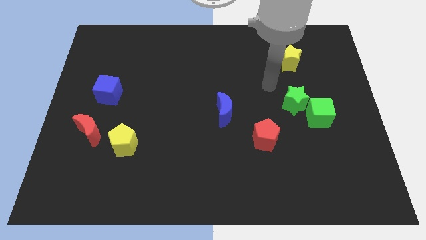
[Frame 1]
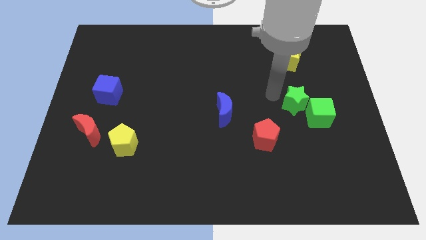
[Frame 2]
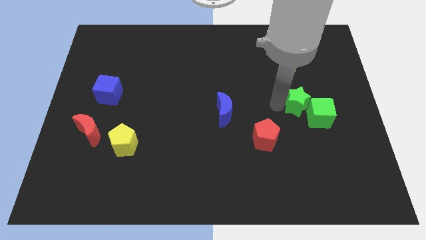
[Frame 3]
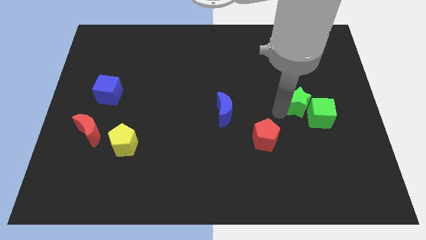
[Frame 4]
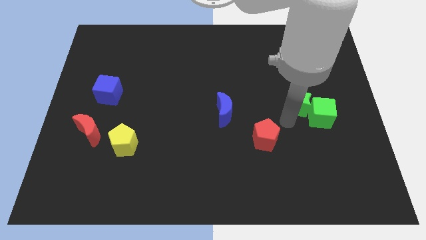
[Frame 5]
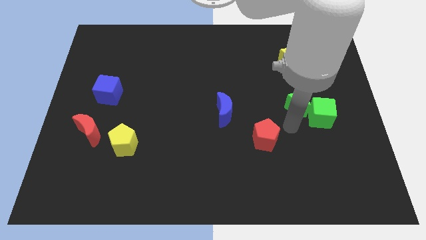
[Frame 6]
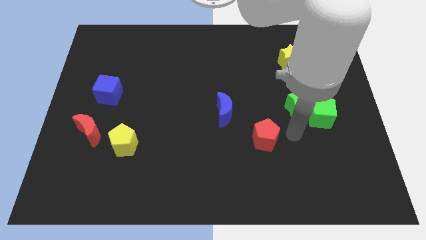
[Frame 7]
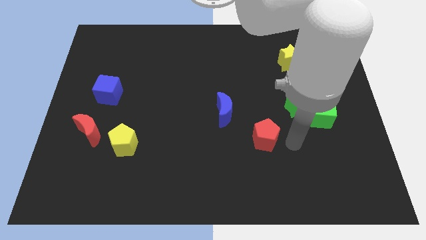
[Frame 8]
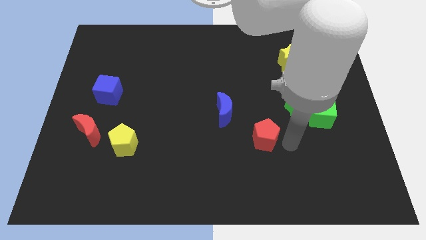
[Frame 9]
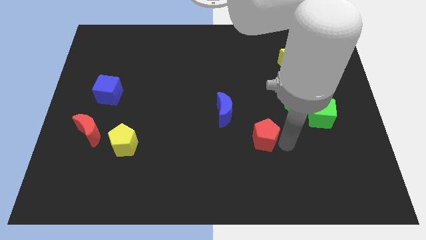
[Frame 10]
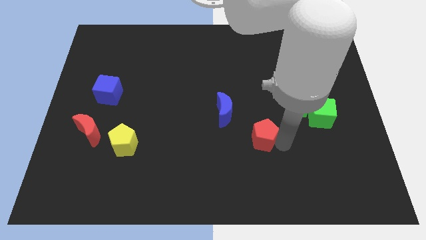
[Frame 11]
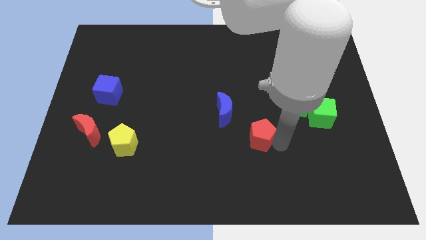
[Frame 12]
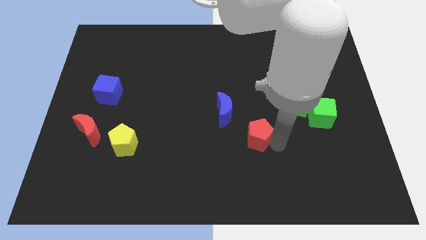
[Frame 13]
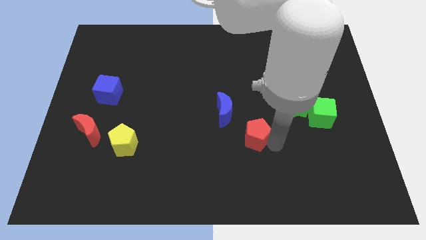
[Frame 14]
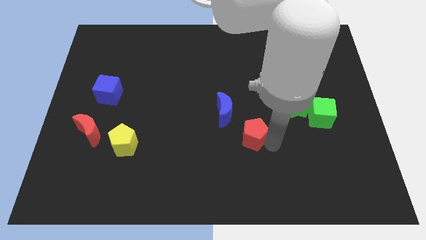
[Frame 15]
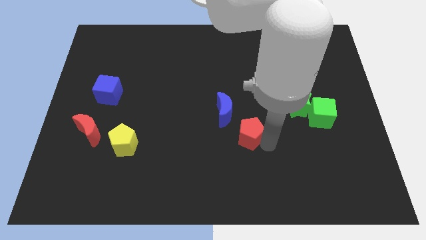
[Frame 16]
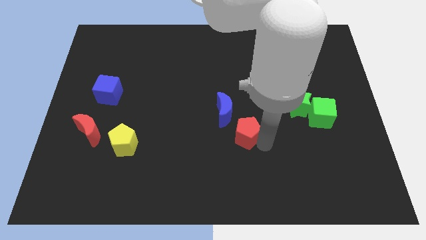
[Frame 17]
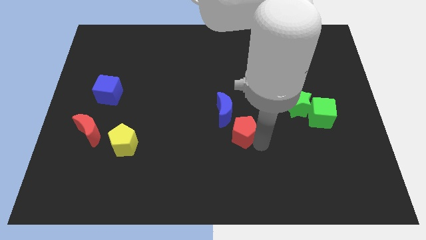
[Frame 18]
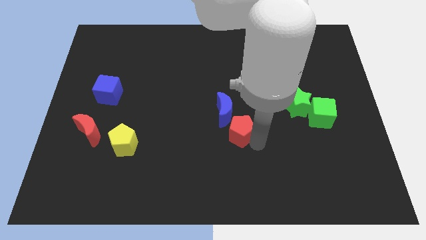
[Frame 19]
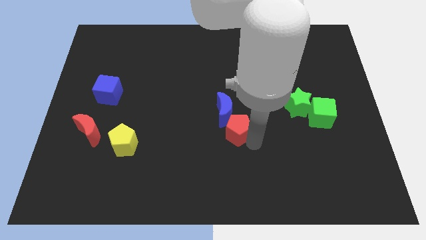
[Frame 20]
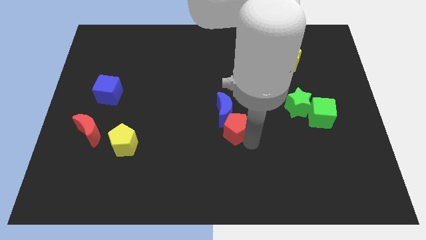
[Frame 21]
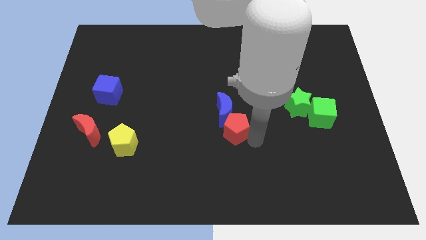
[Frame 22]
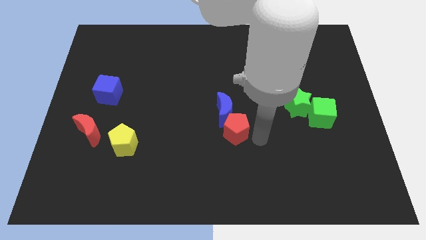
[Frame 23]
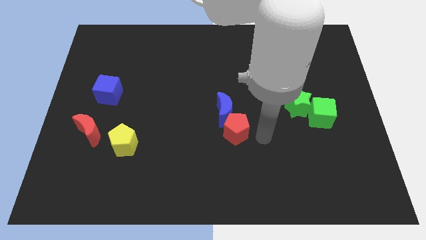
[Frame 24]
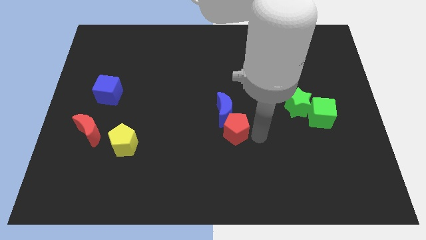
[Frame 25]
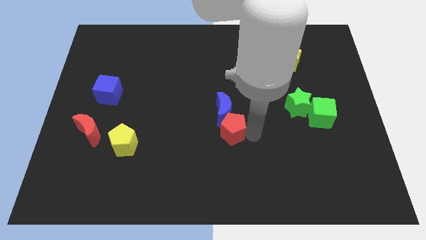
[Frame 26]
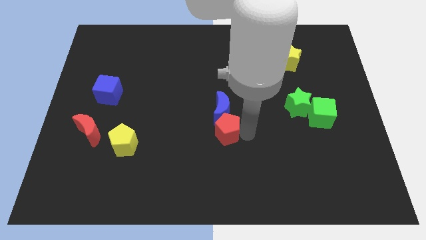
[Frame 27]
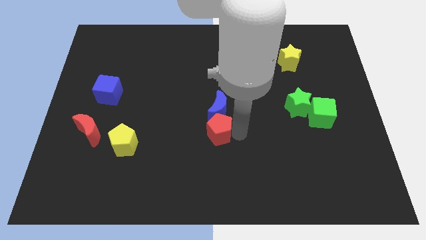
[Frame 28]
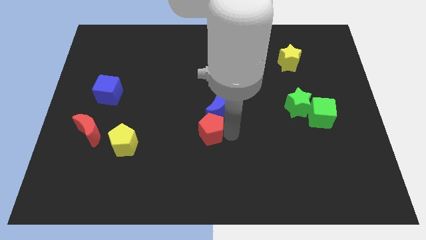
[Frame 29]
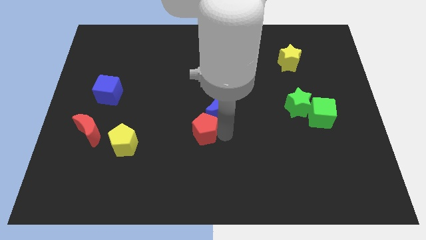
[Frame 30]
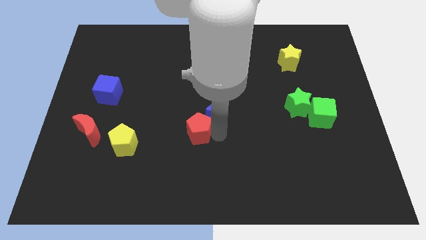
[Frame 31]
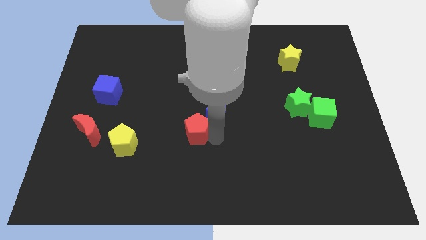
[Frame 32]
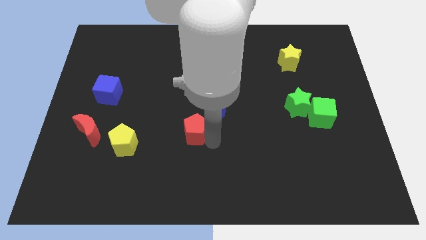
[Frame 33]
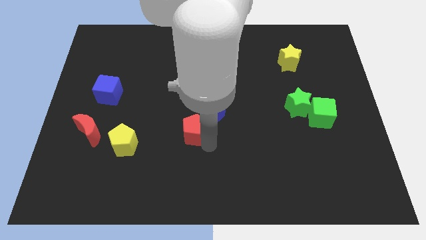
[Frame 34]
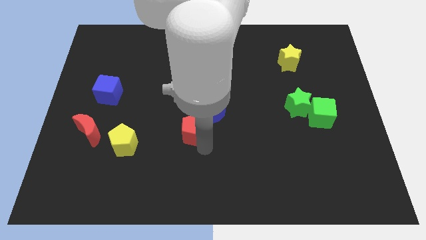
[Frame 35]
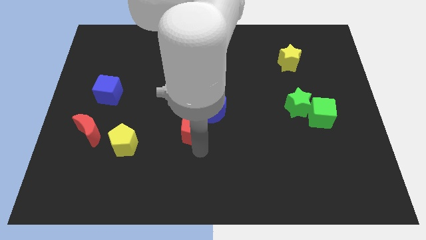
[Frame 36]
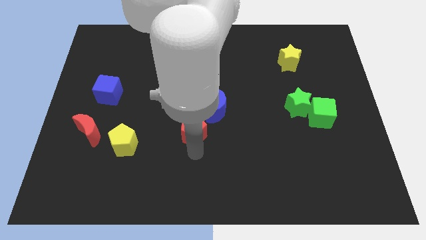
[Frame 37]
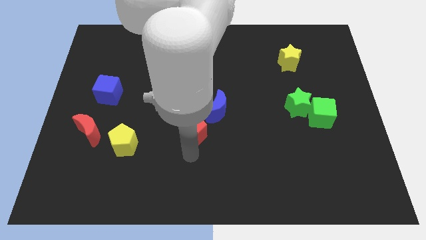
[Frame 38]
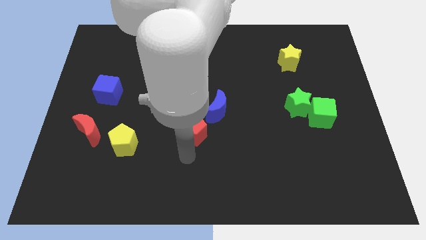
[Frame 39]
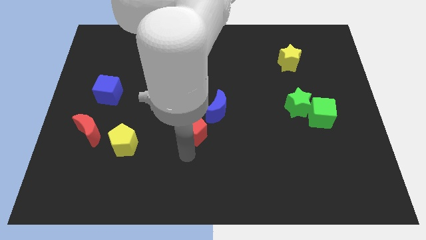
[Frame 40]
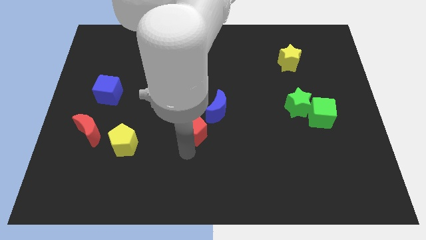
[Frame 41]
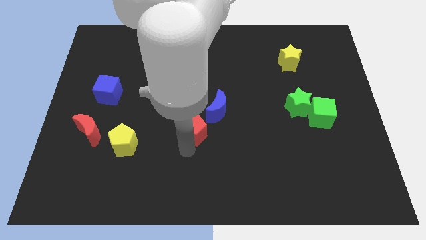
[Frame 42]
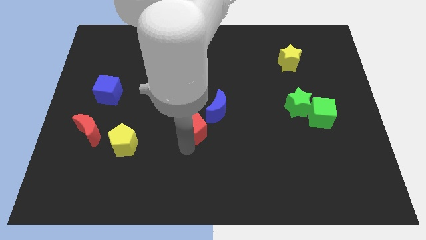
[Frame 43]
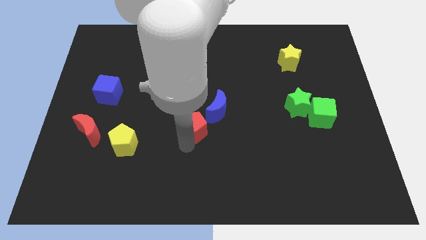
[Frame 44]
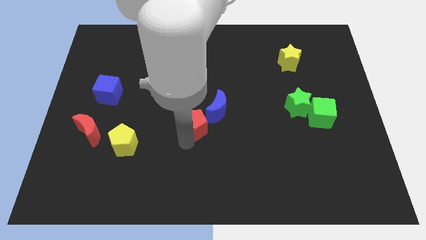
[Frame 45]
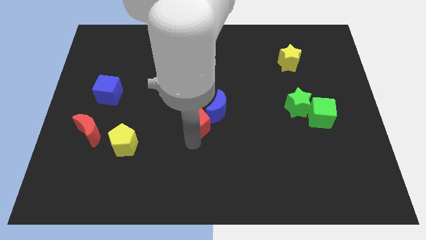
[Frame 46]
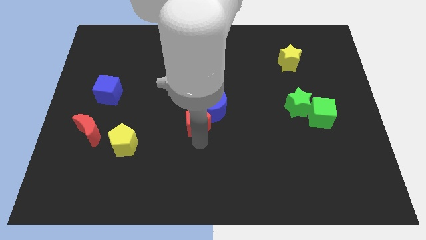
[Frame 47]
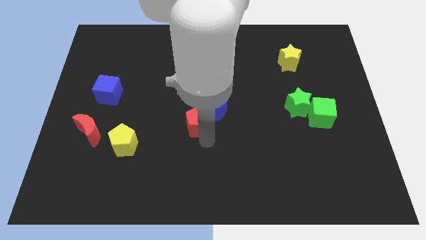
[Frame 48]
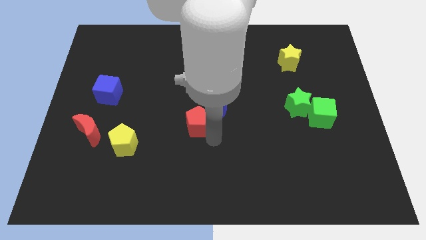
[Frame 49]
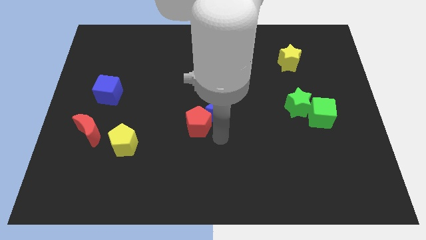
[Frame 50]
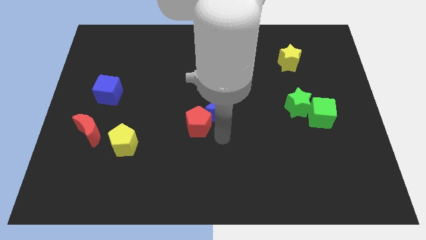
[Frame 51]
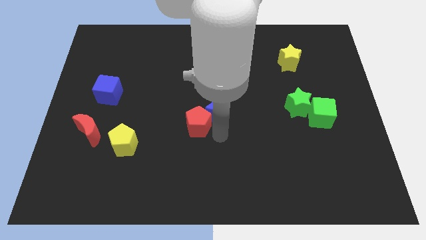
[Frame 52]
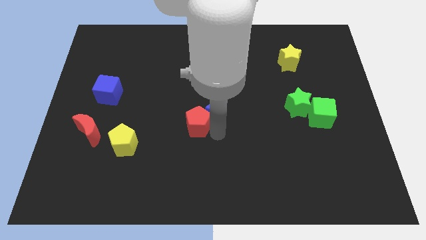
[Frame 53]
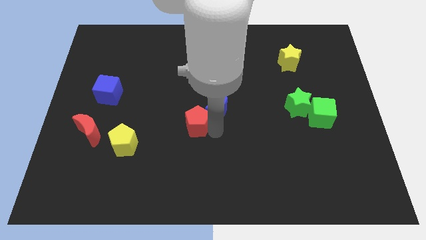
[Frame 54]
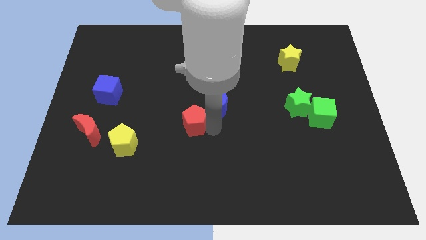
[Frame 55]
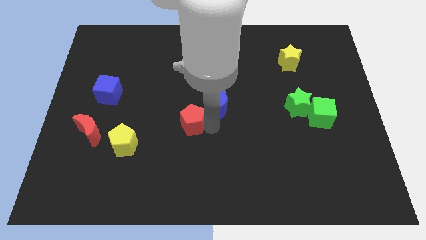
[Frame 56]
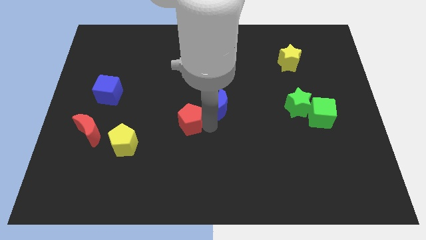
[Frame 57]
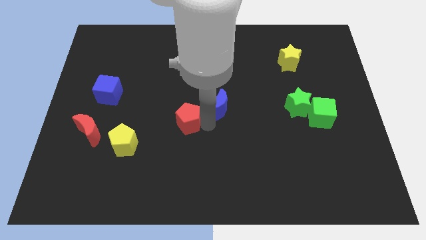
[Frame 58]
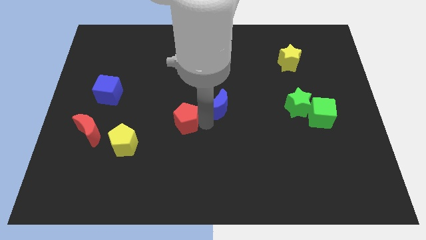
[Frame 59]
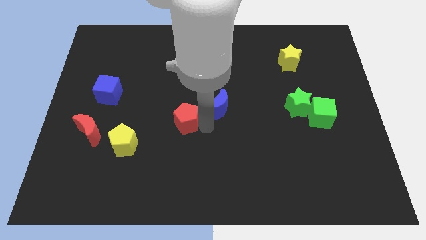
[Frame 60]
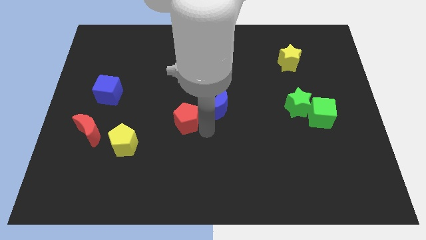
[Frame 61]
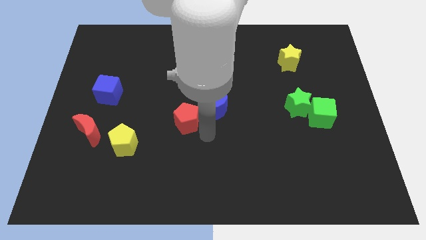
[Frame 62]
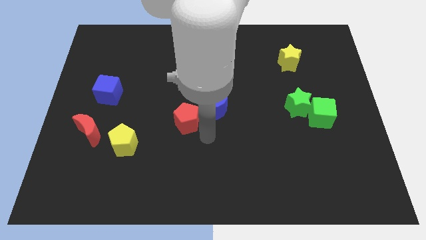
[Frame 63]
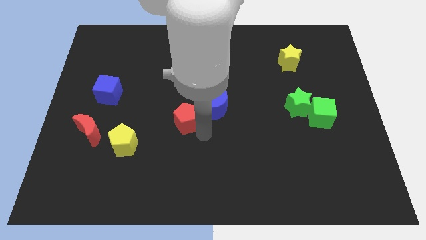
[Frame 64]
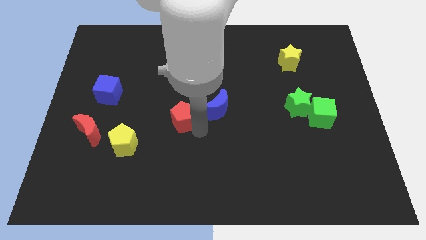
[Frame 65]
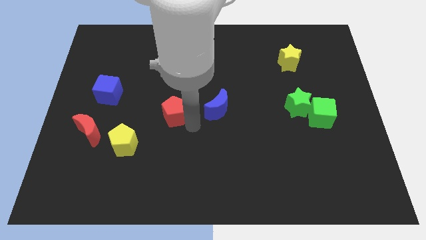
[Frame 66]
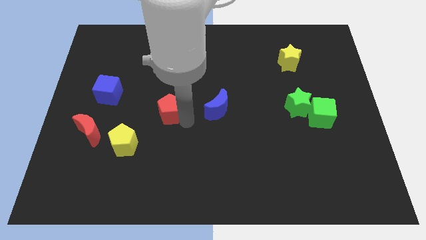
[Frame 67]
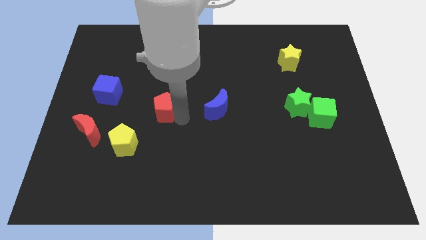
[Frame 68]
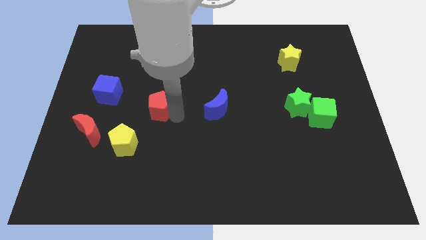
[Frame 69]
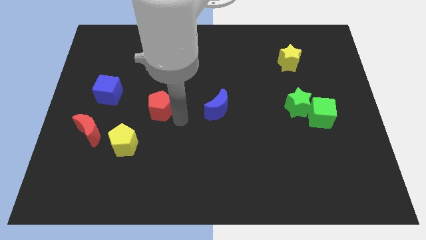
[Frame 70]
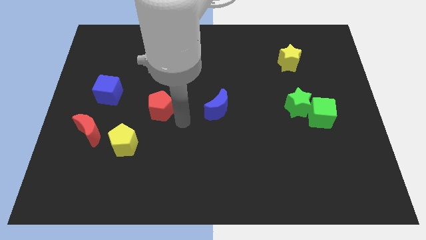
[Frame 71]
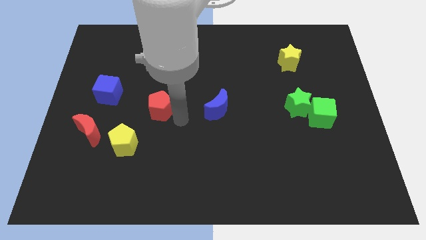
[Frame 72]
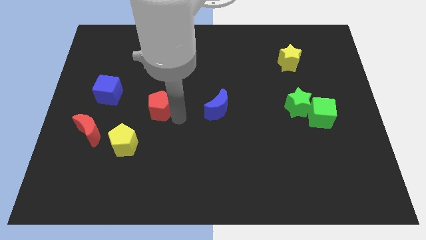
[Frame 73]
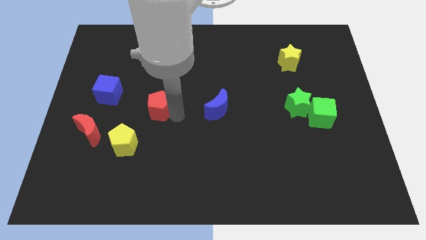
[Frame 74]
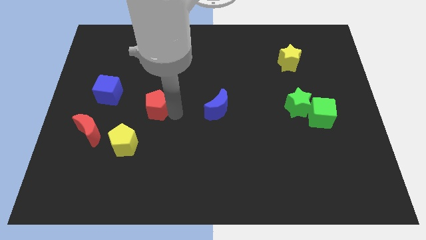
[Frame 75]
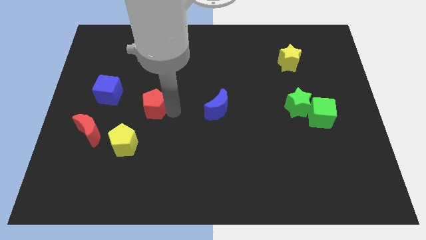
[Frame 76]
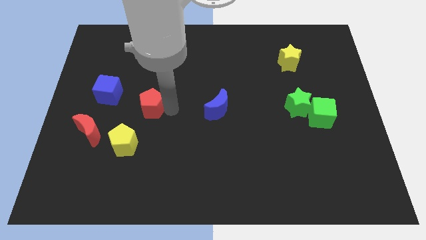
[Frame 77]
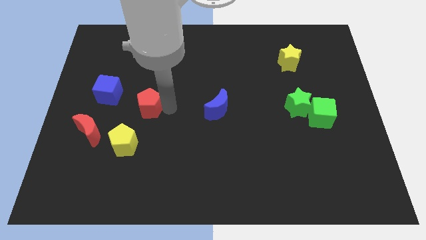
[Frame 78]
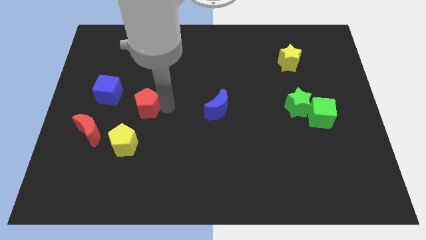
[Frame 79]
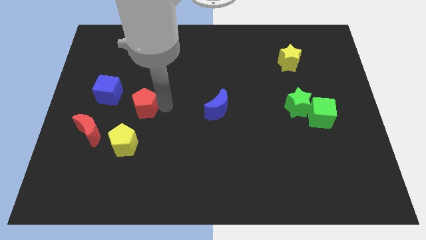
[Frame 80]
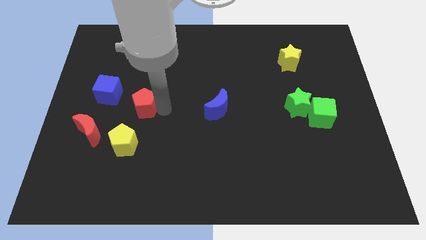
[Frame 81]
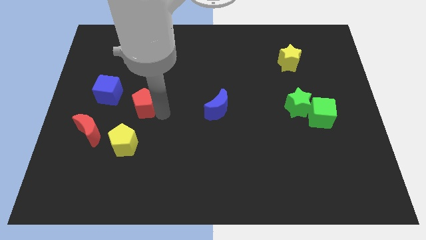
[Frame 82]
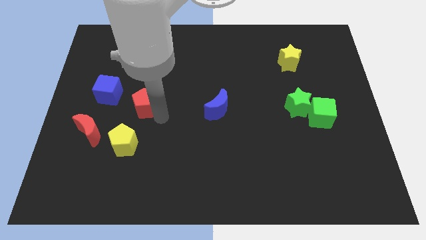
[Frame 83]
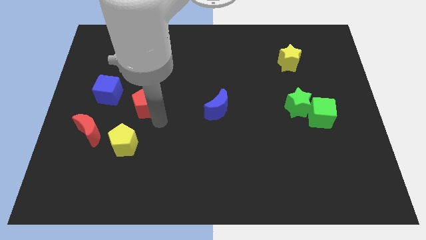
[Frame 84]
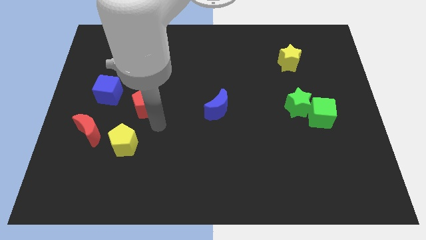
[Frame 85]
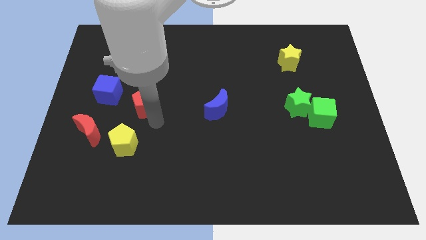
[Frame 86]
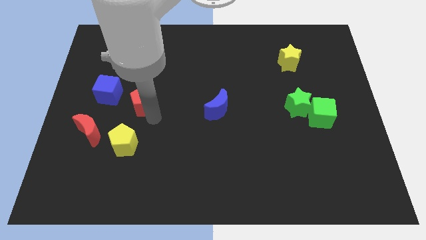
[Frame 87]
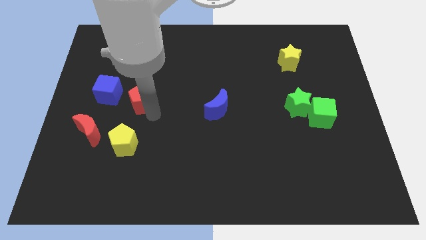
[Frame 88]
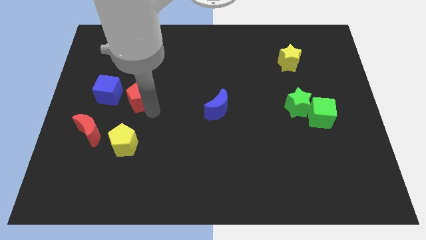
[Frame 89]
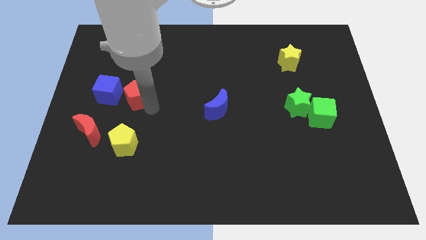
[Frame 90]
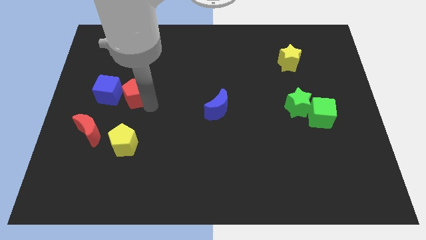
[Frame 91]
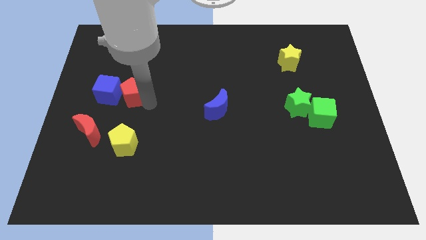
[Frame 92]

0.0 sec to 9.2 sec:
push the red pentagon next to the blue cube
